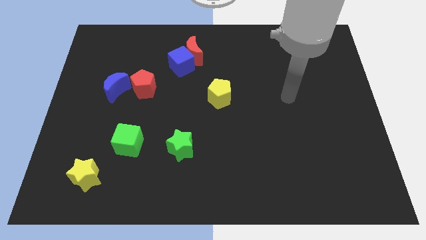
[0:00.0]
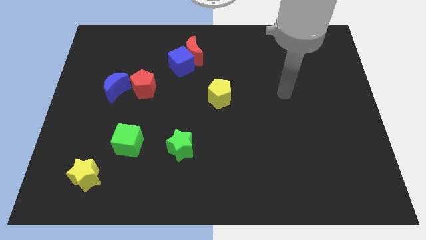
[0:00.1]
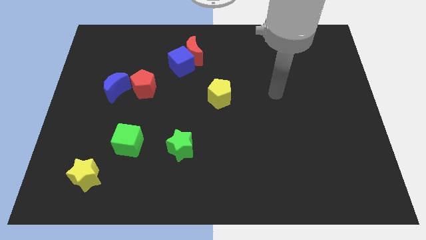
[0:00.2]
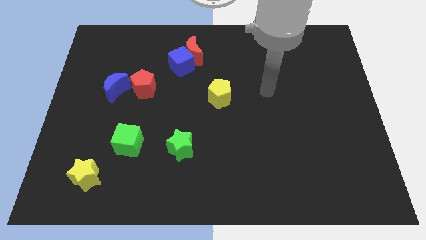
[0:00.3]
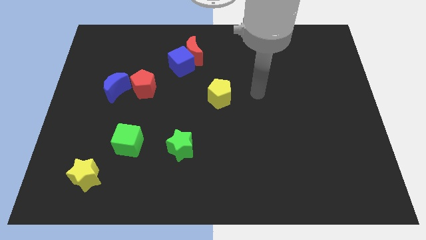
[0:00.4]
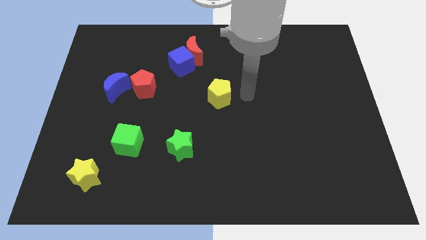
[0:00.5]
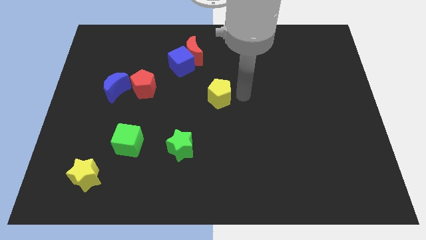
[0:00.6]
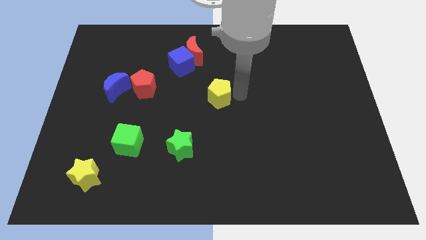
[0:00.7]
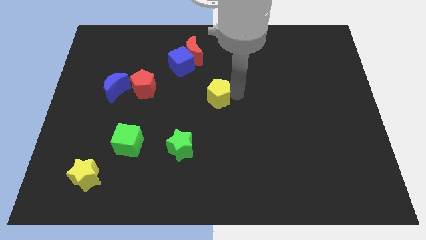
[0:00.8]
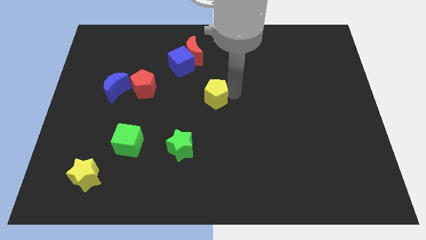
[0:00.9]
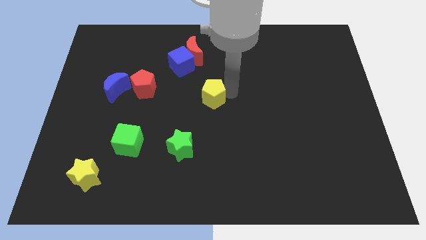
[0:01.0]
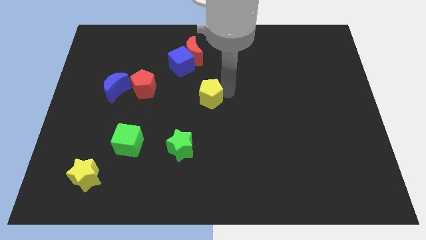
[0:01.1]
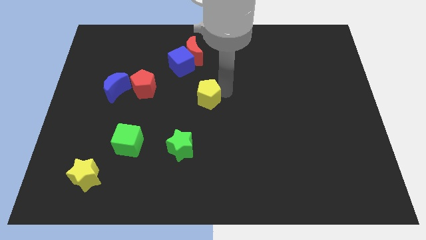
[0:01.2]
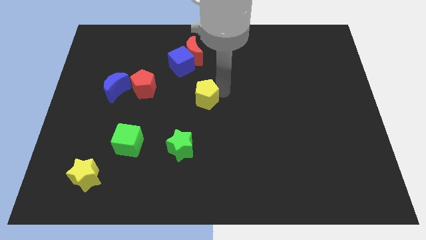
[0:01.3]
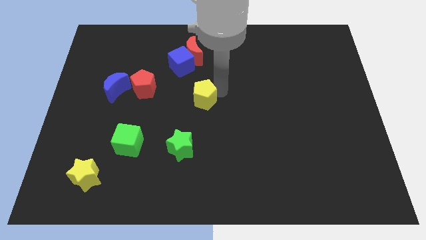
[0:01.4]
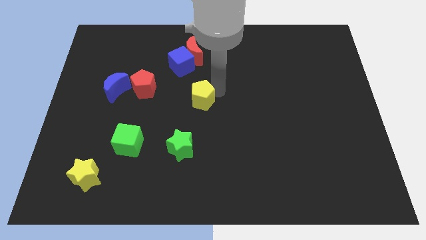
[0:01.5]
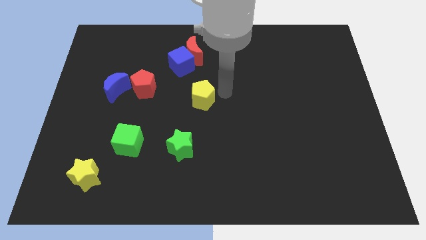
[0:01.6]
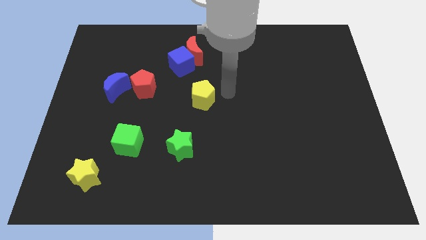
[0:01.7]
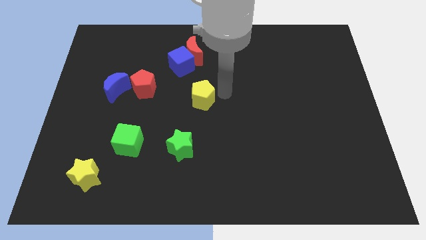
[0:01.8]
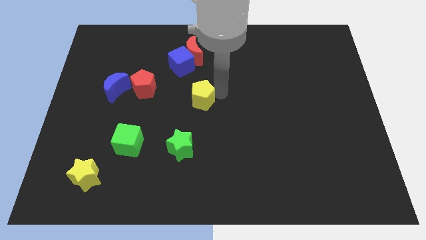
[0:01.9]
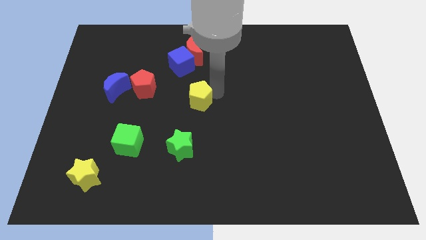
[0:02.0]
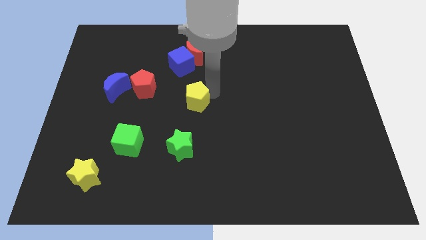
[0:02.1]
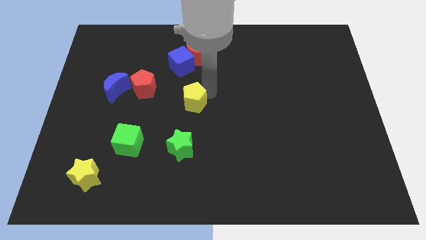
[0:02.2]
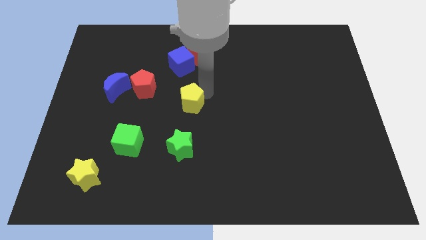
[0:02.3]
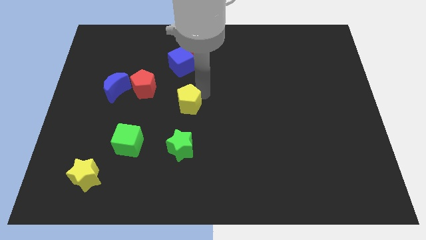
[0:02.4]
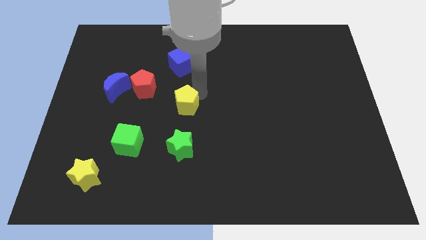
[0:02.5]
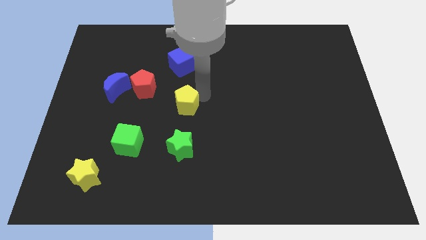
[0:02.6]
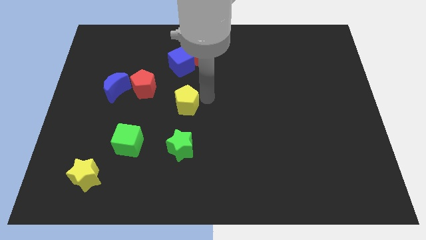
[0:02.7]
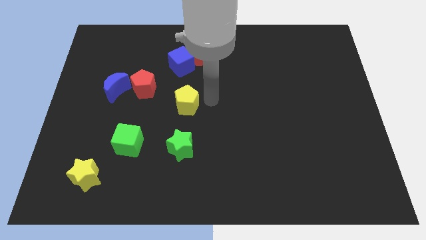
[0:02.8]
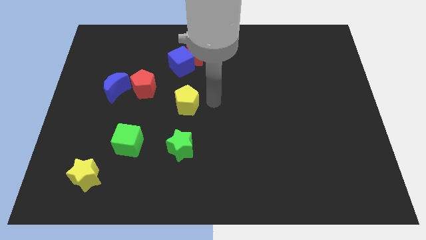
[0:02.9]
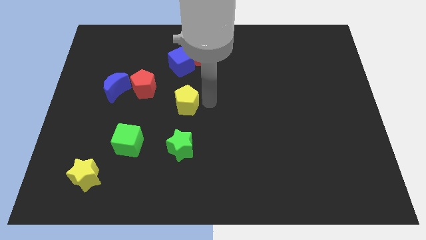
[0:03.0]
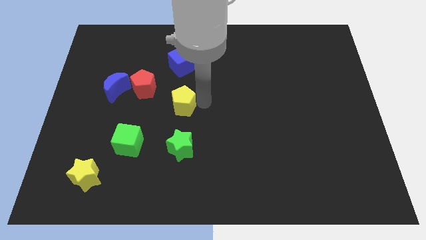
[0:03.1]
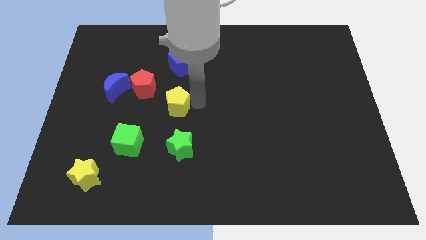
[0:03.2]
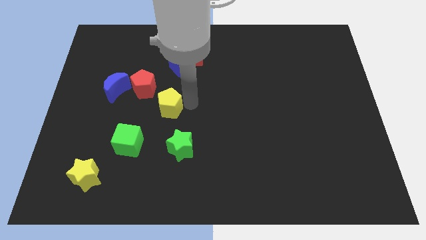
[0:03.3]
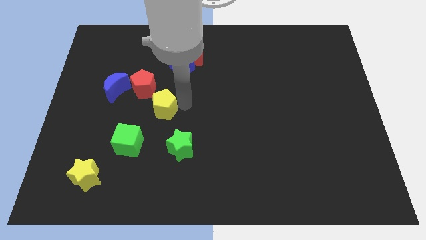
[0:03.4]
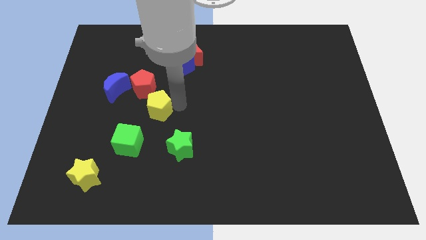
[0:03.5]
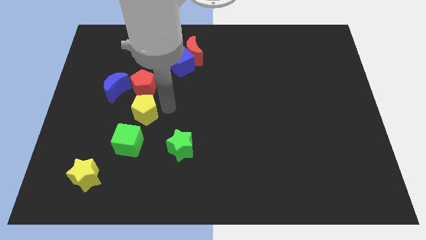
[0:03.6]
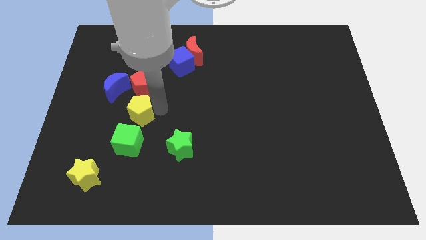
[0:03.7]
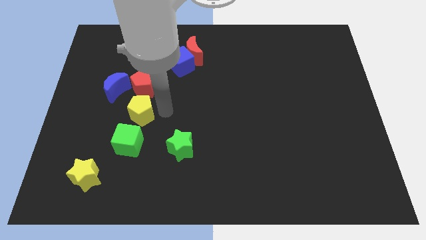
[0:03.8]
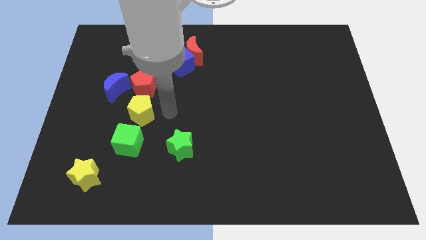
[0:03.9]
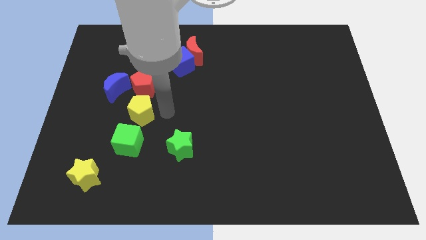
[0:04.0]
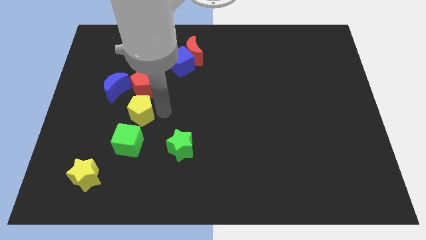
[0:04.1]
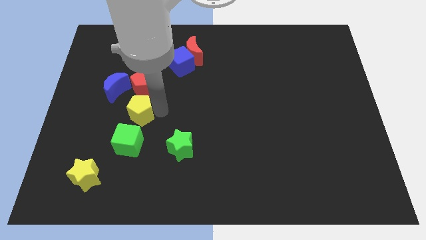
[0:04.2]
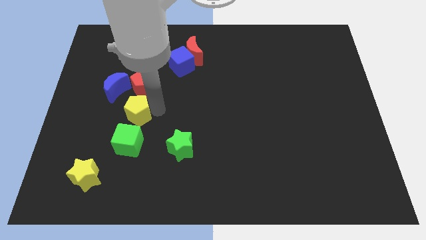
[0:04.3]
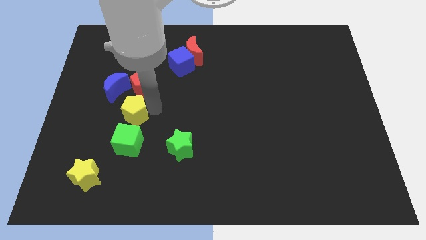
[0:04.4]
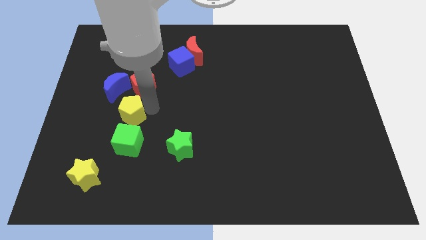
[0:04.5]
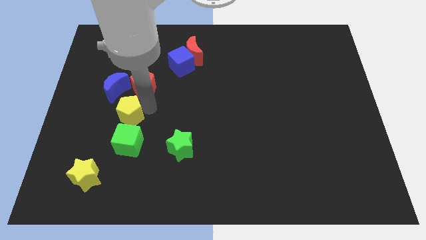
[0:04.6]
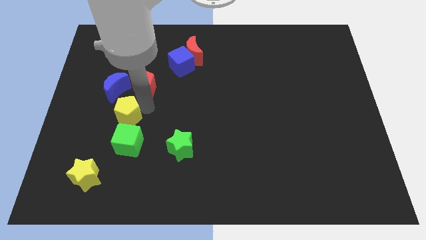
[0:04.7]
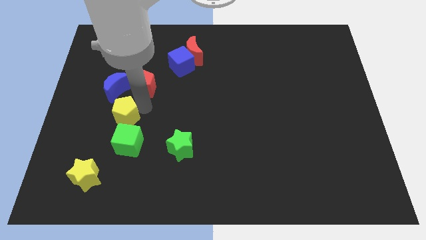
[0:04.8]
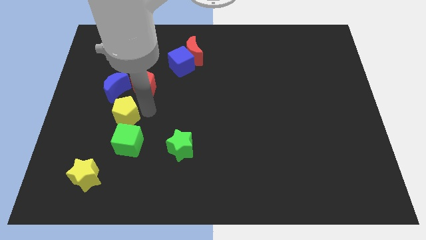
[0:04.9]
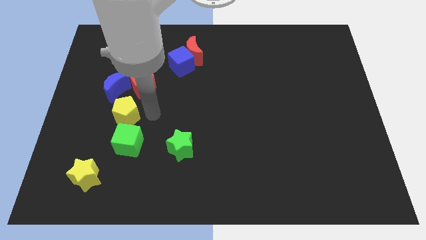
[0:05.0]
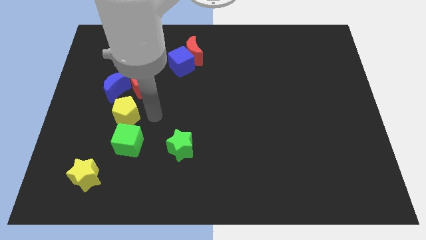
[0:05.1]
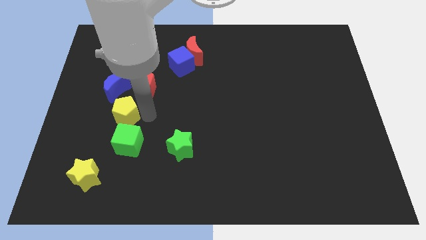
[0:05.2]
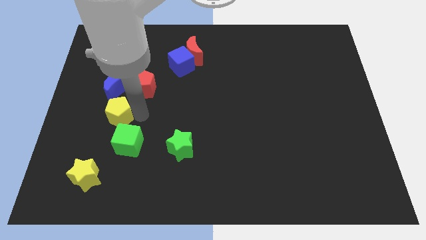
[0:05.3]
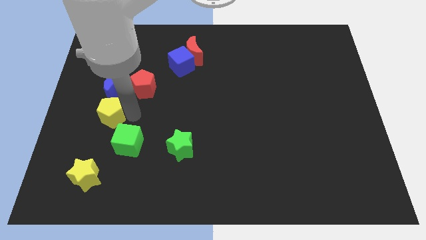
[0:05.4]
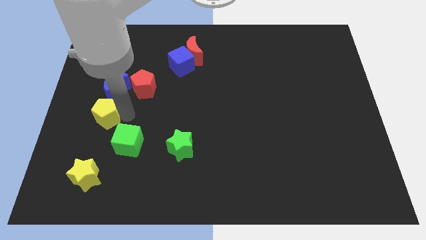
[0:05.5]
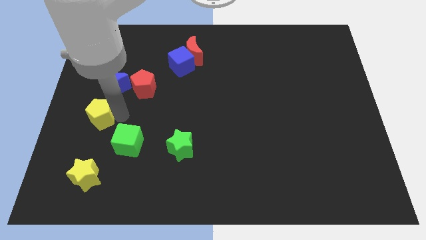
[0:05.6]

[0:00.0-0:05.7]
push the yellow pentagon to the left side of the board

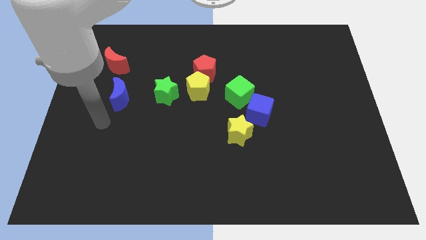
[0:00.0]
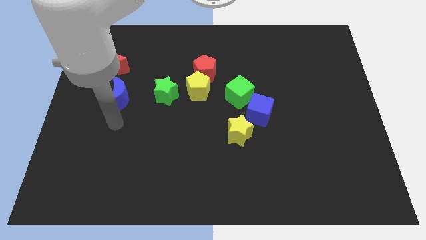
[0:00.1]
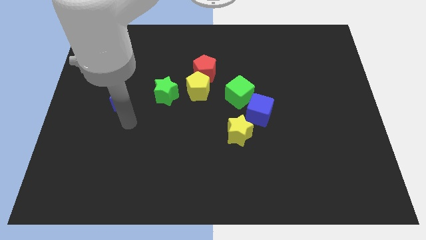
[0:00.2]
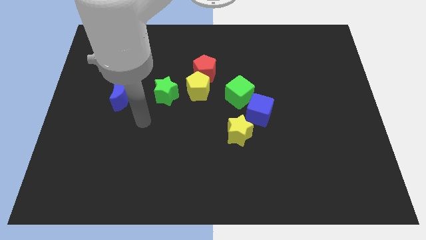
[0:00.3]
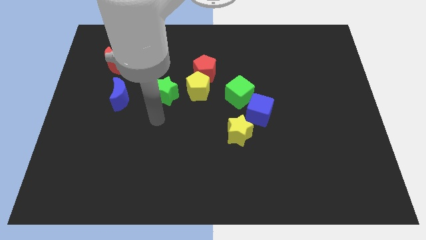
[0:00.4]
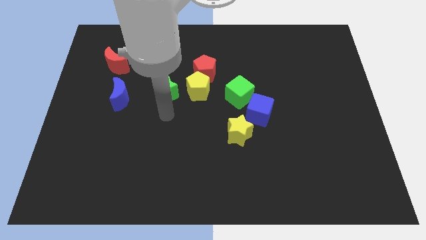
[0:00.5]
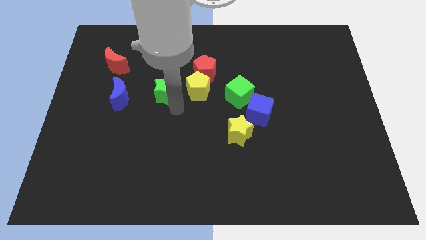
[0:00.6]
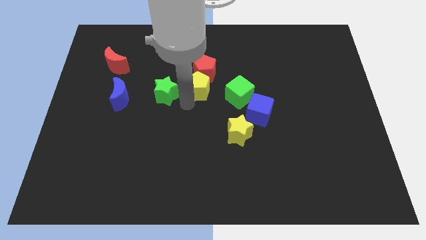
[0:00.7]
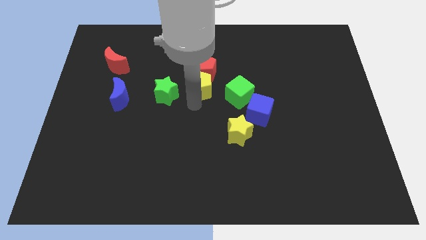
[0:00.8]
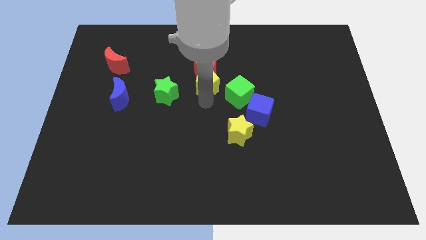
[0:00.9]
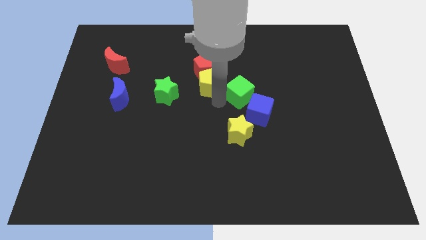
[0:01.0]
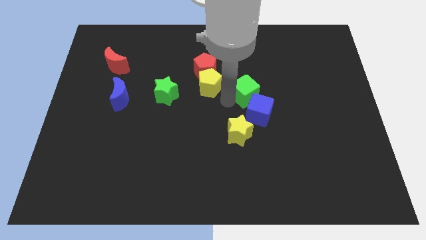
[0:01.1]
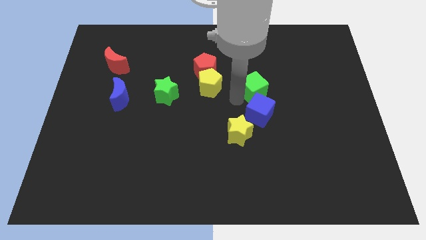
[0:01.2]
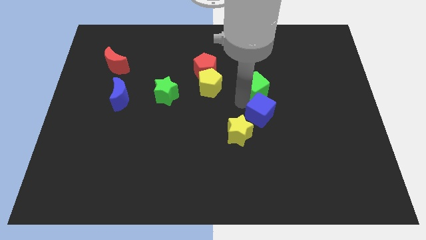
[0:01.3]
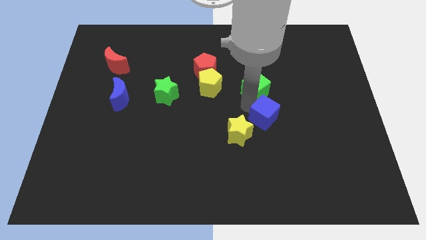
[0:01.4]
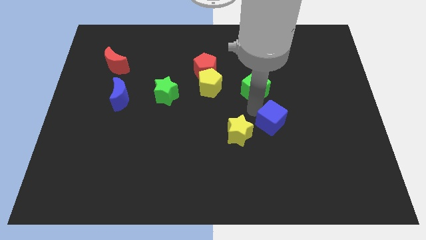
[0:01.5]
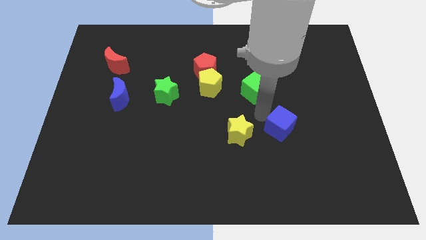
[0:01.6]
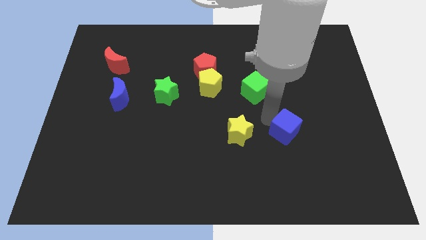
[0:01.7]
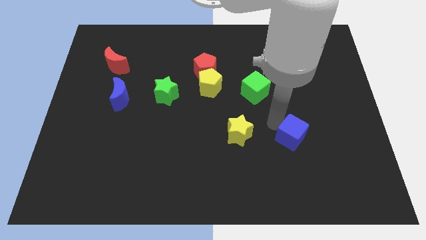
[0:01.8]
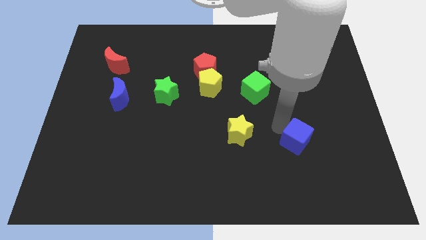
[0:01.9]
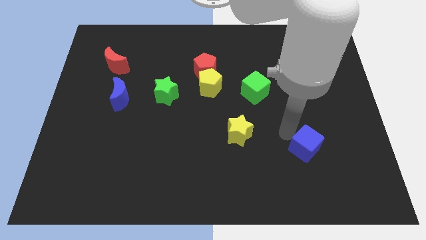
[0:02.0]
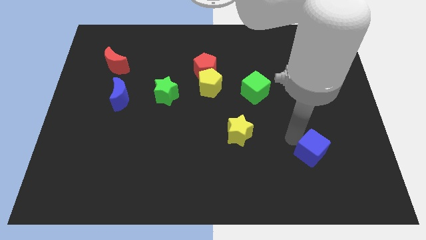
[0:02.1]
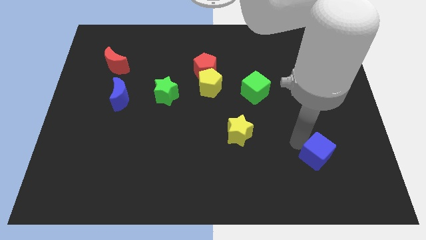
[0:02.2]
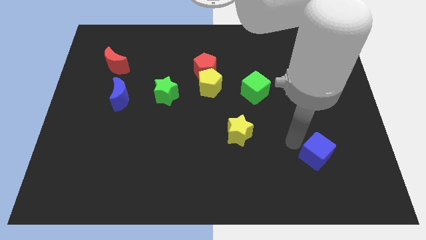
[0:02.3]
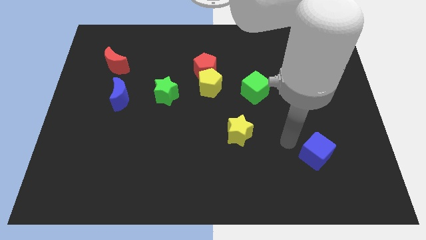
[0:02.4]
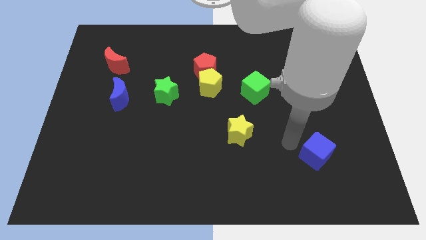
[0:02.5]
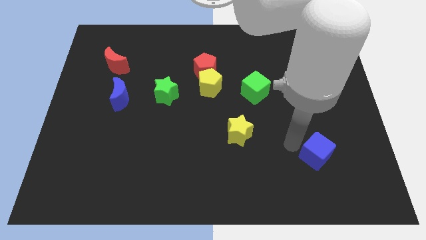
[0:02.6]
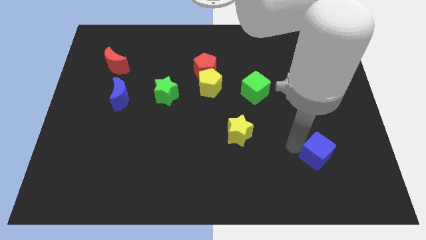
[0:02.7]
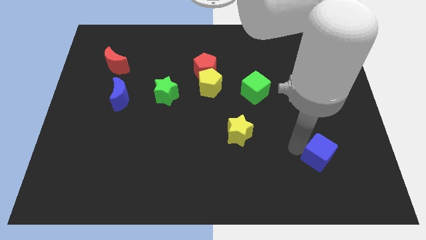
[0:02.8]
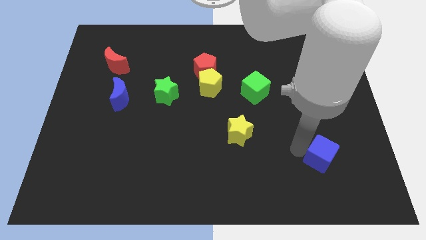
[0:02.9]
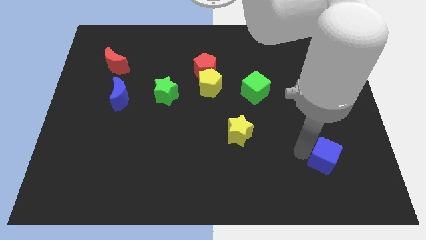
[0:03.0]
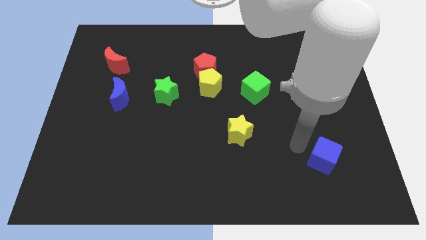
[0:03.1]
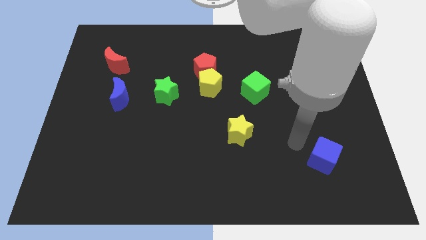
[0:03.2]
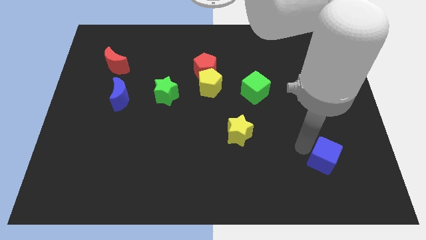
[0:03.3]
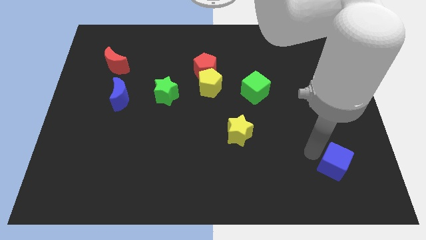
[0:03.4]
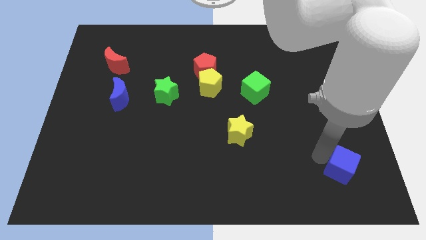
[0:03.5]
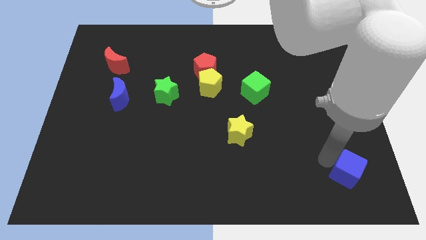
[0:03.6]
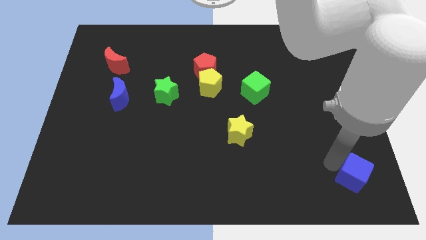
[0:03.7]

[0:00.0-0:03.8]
slide the blue cube to the lower right corner
